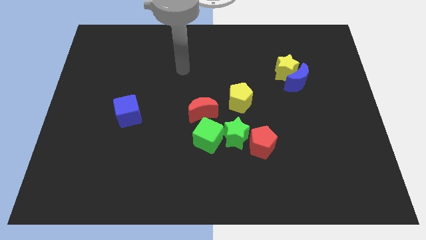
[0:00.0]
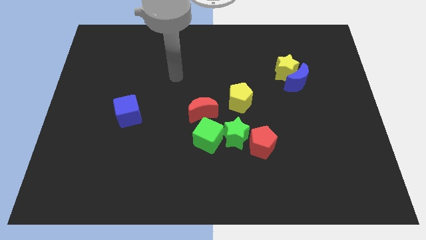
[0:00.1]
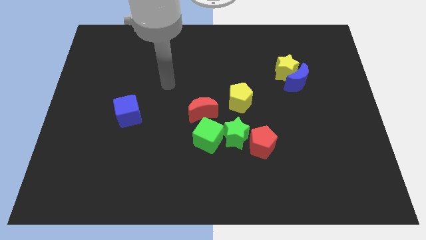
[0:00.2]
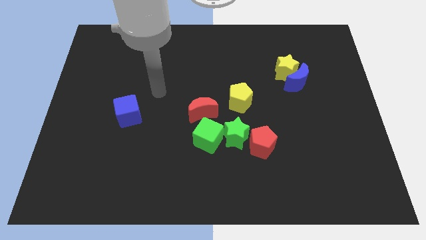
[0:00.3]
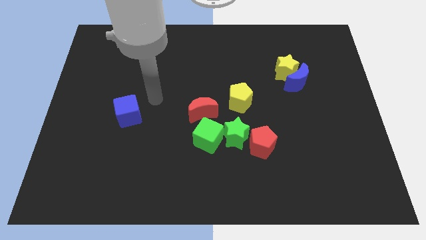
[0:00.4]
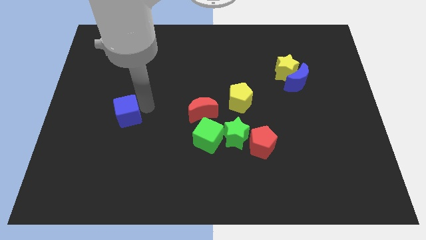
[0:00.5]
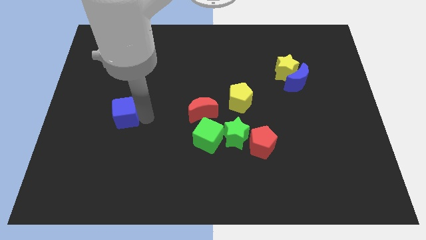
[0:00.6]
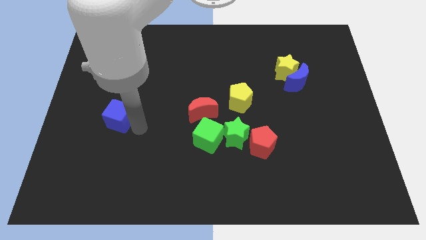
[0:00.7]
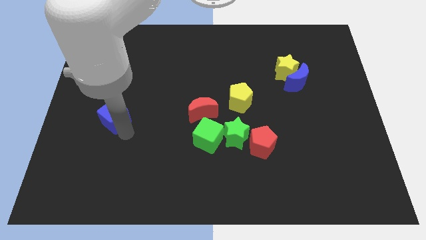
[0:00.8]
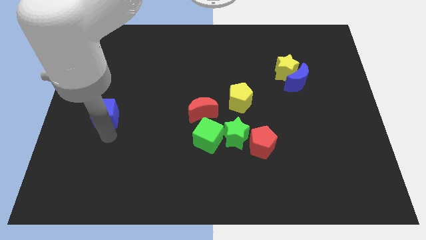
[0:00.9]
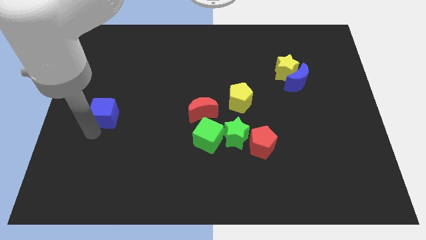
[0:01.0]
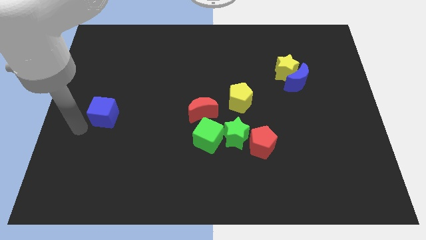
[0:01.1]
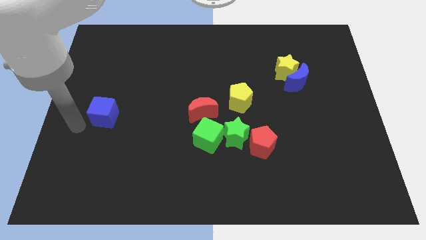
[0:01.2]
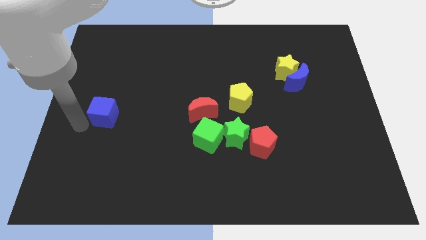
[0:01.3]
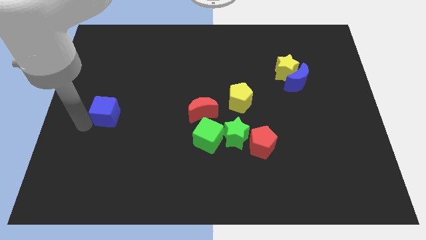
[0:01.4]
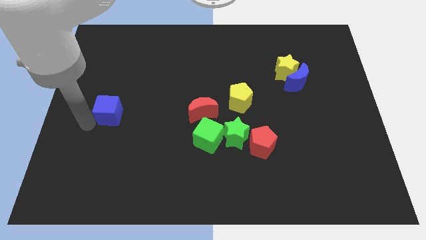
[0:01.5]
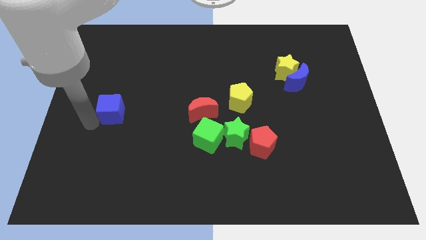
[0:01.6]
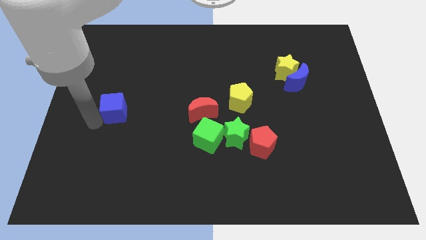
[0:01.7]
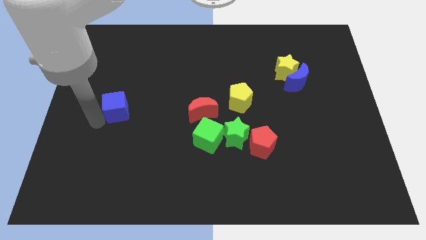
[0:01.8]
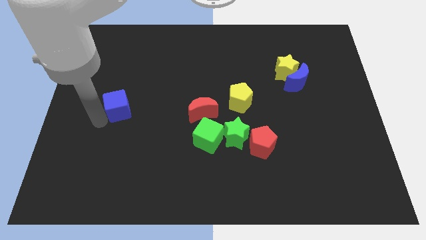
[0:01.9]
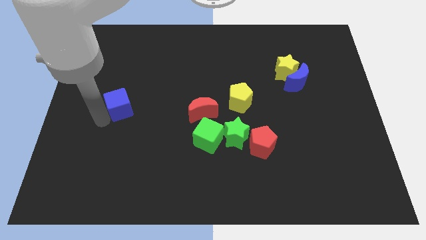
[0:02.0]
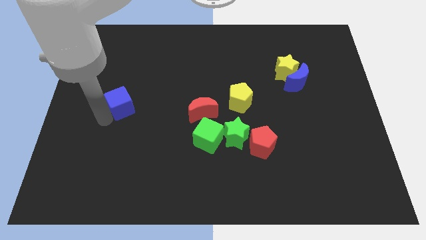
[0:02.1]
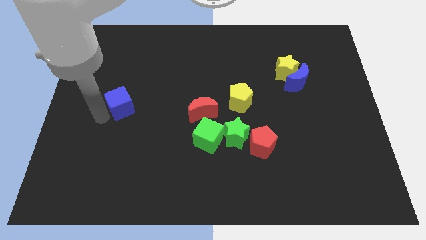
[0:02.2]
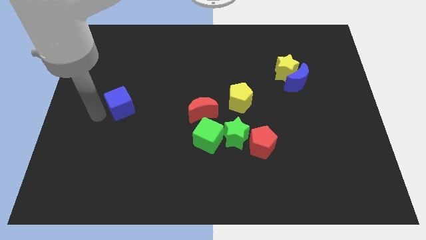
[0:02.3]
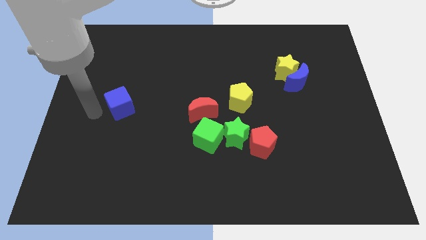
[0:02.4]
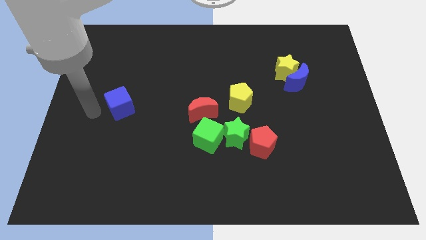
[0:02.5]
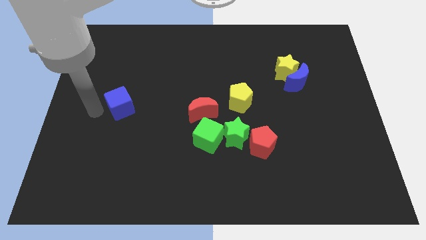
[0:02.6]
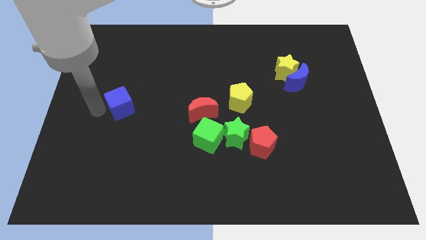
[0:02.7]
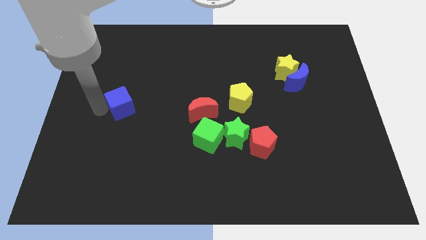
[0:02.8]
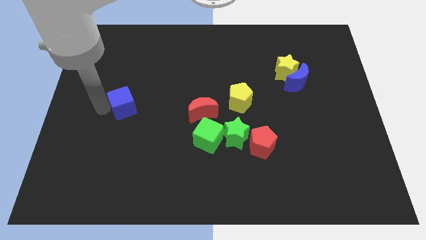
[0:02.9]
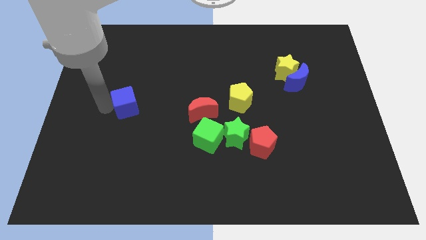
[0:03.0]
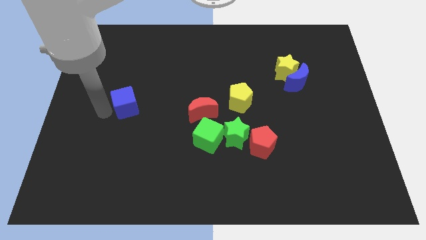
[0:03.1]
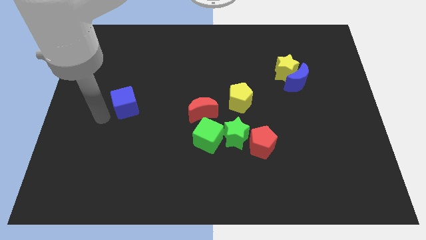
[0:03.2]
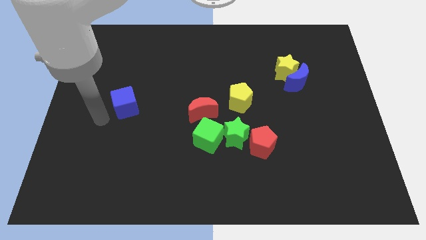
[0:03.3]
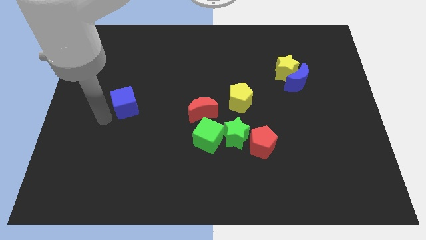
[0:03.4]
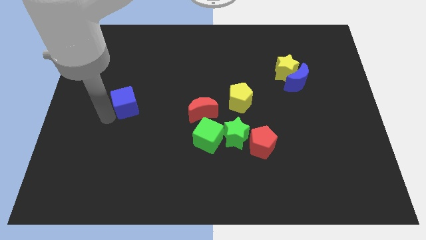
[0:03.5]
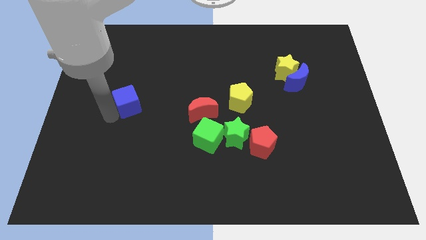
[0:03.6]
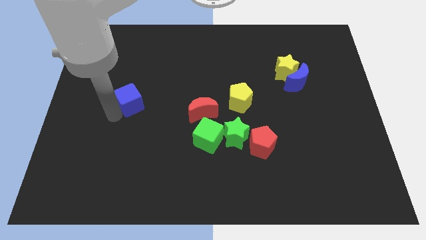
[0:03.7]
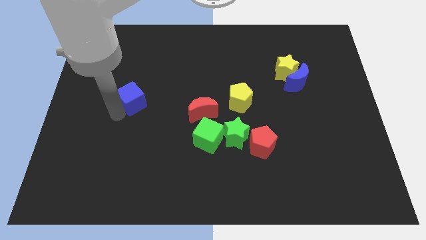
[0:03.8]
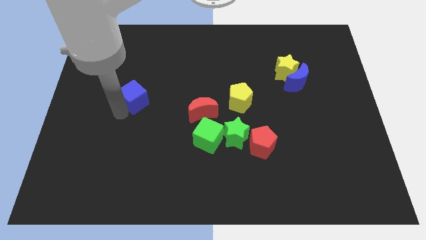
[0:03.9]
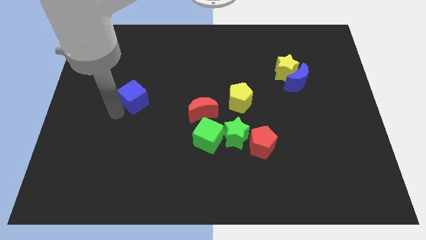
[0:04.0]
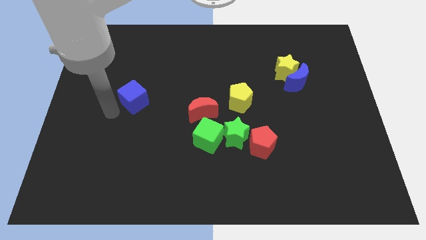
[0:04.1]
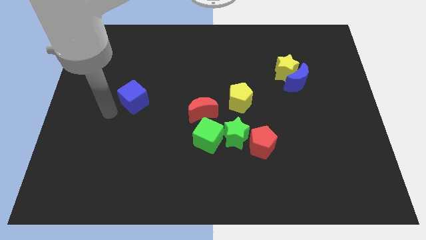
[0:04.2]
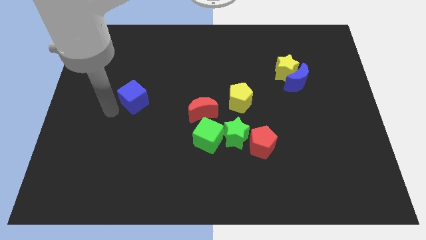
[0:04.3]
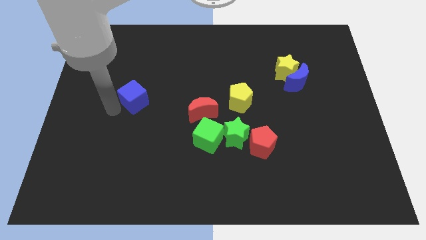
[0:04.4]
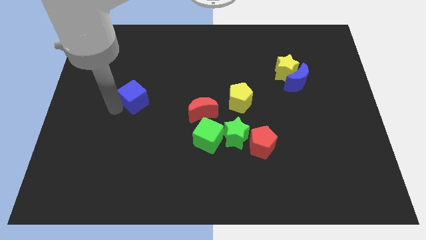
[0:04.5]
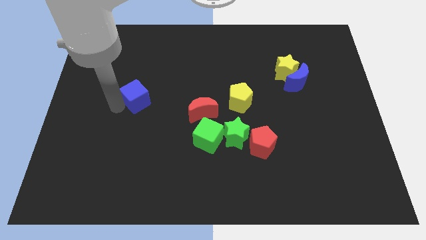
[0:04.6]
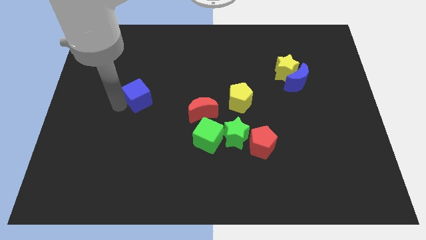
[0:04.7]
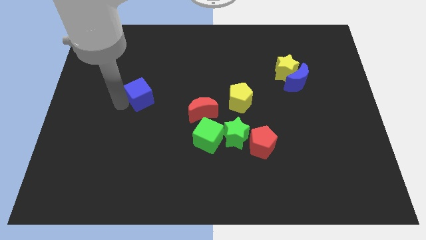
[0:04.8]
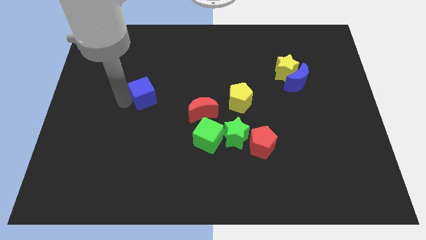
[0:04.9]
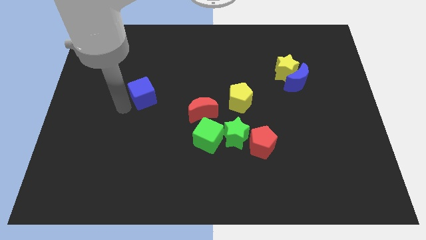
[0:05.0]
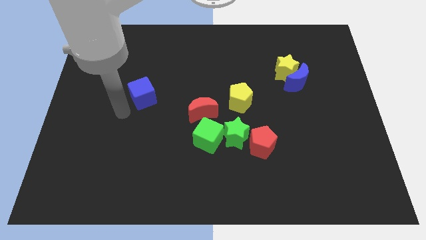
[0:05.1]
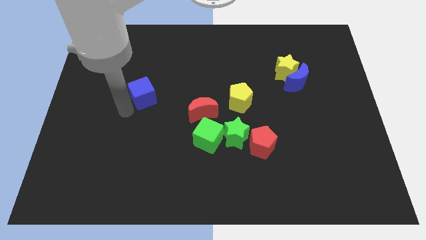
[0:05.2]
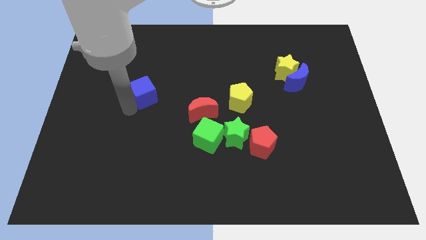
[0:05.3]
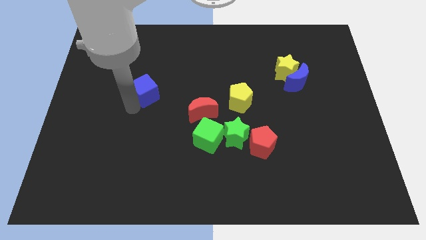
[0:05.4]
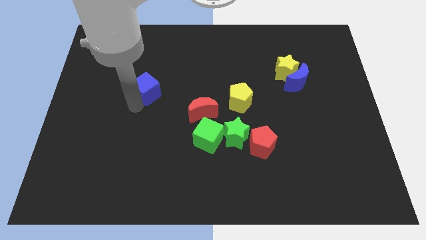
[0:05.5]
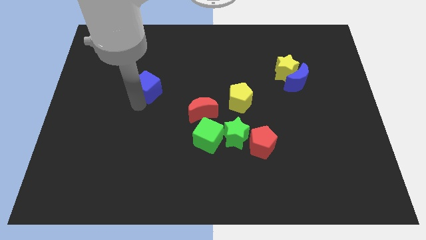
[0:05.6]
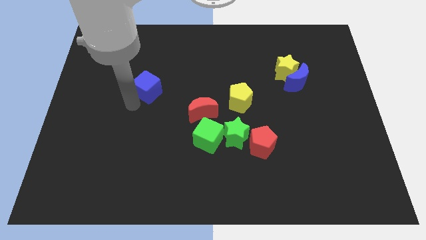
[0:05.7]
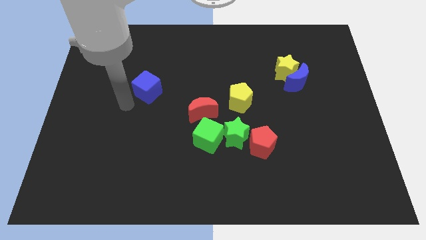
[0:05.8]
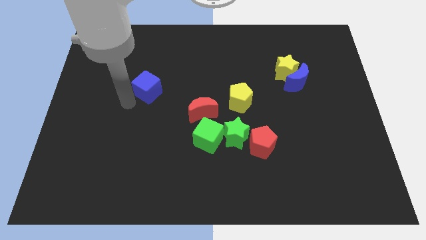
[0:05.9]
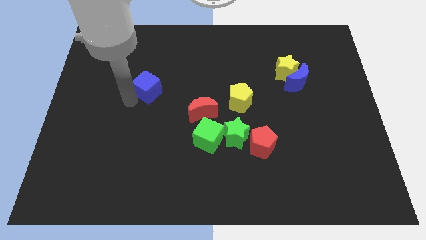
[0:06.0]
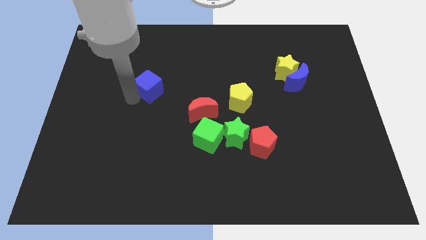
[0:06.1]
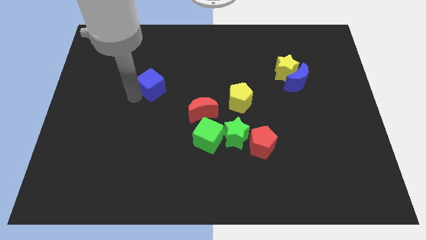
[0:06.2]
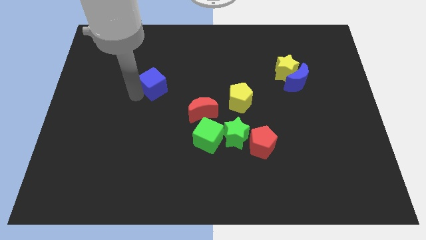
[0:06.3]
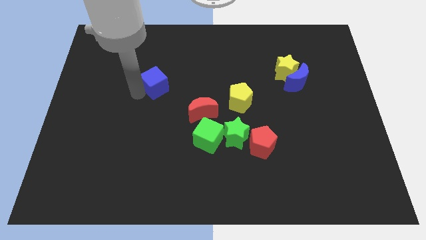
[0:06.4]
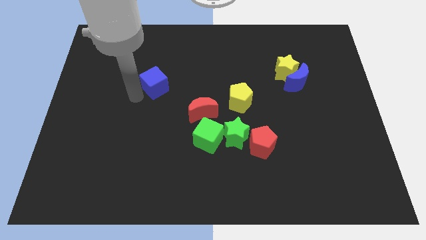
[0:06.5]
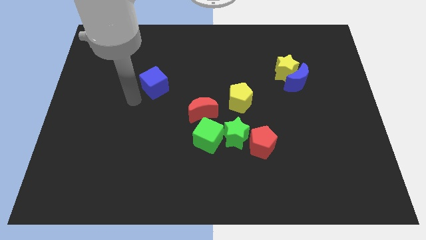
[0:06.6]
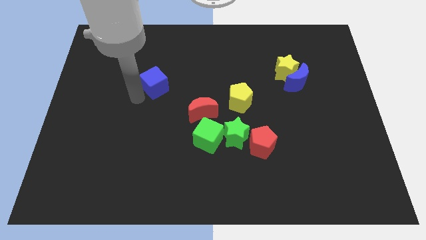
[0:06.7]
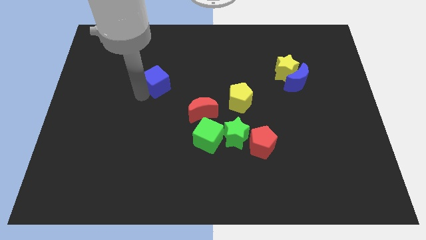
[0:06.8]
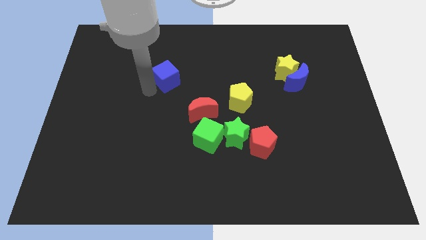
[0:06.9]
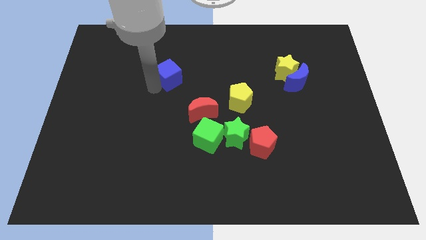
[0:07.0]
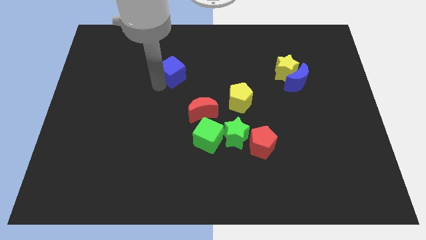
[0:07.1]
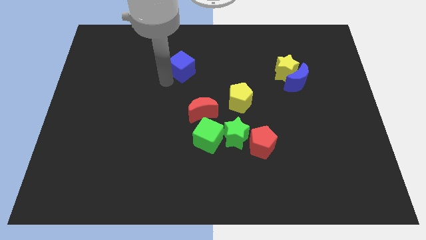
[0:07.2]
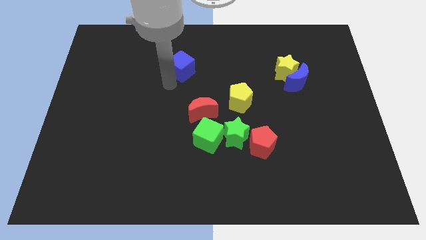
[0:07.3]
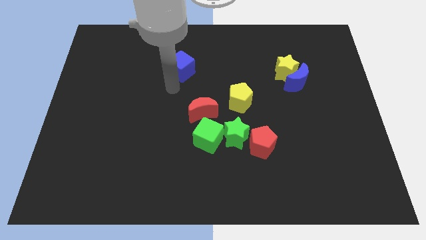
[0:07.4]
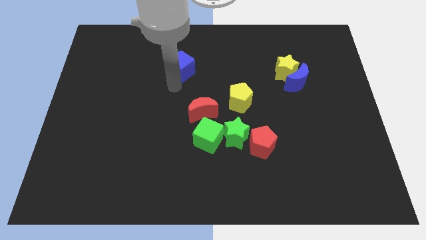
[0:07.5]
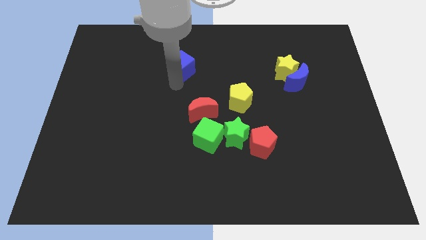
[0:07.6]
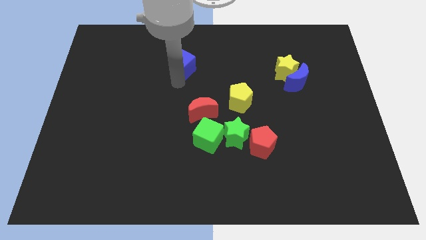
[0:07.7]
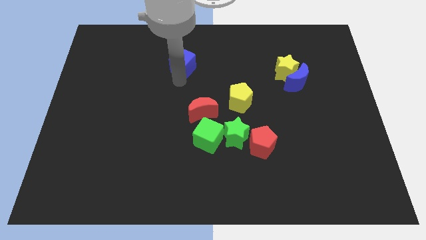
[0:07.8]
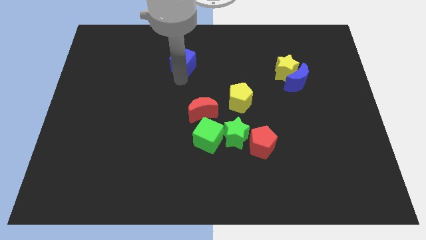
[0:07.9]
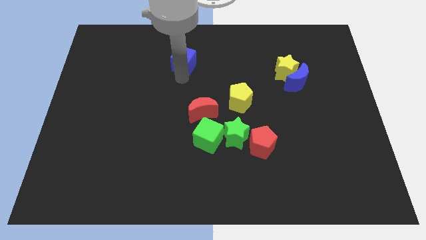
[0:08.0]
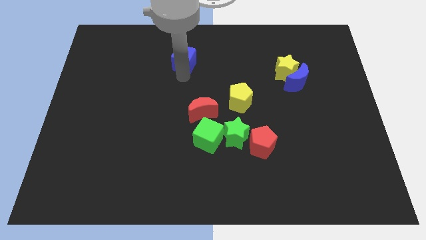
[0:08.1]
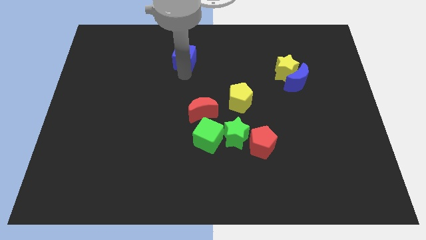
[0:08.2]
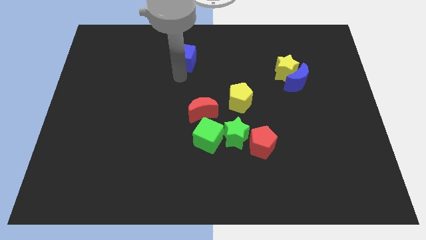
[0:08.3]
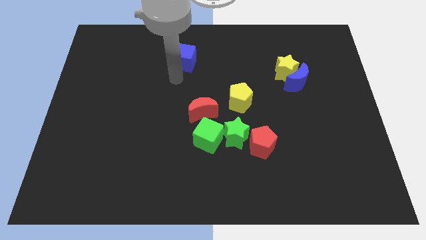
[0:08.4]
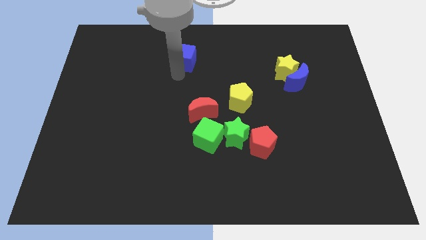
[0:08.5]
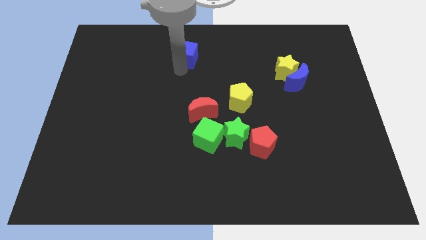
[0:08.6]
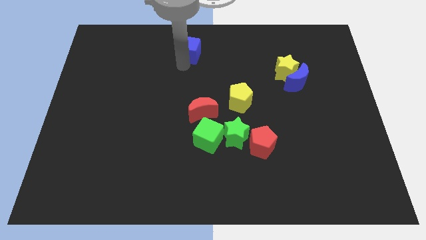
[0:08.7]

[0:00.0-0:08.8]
move the blue cube to the top
